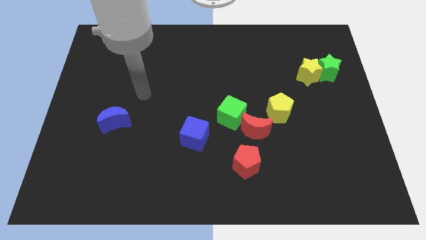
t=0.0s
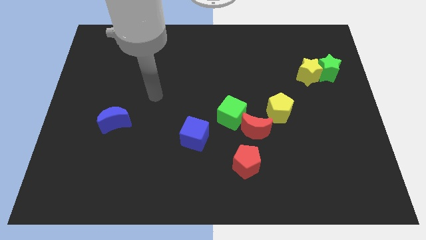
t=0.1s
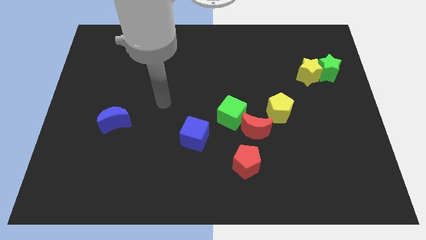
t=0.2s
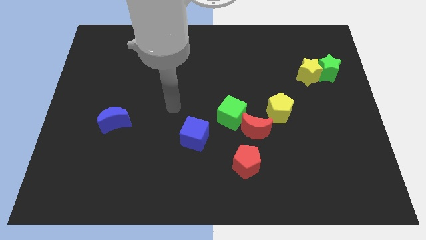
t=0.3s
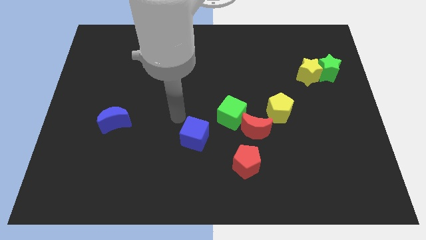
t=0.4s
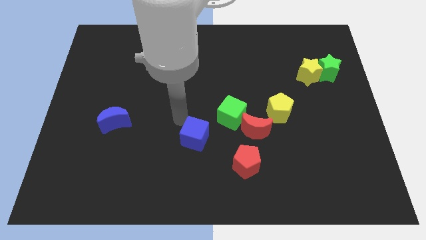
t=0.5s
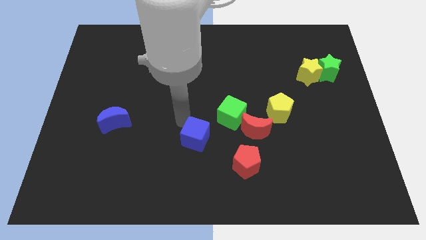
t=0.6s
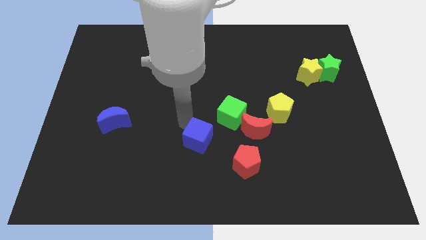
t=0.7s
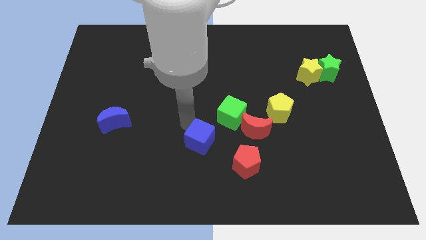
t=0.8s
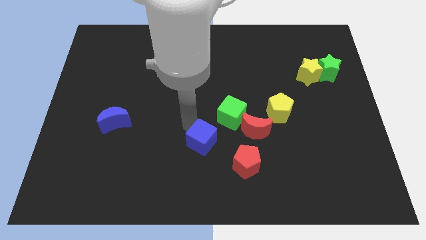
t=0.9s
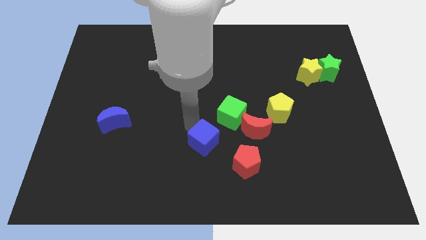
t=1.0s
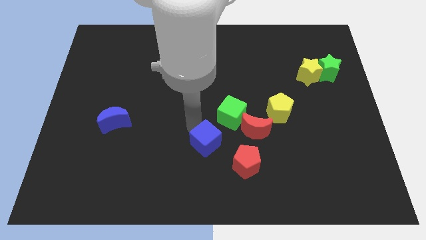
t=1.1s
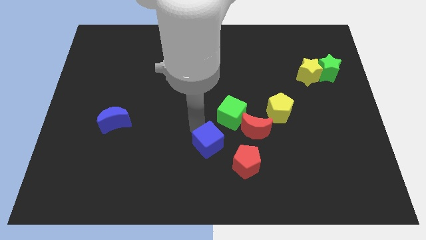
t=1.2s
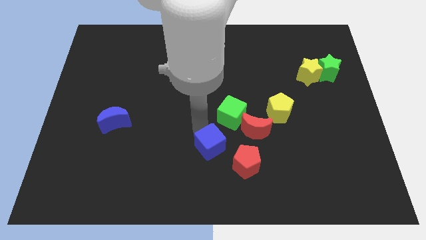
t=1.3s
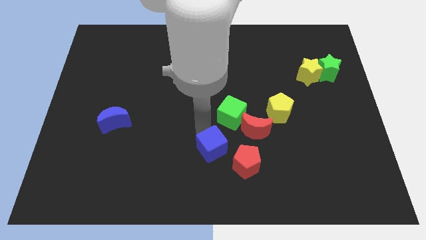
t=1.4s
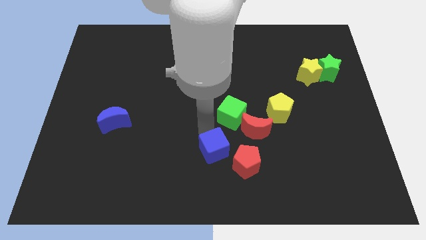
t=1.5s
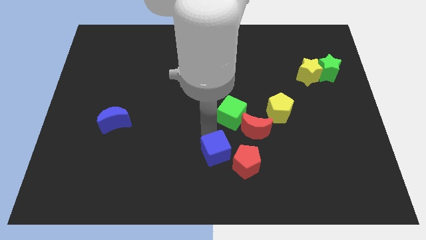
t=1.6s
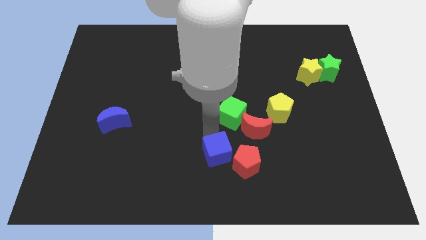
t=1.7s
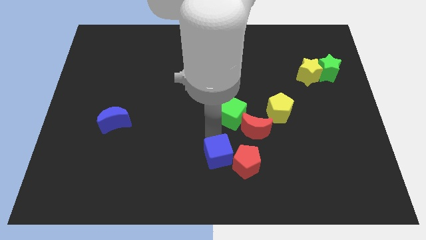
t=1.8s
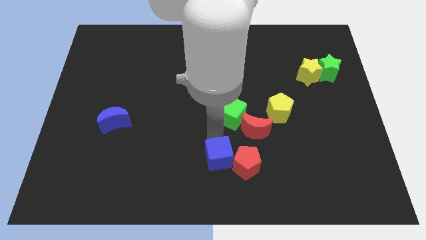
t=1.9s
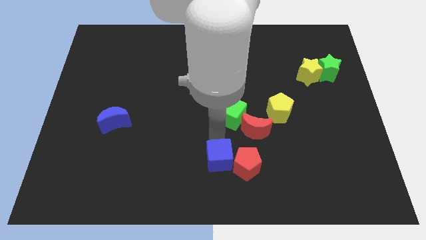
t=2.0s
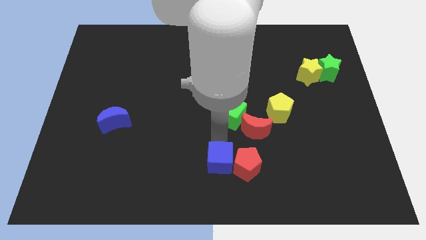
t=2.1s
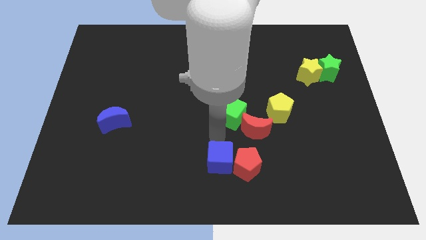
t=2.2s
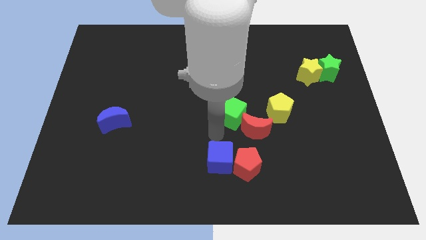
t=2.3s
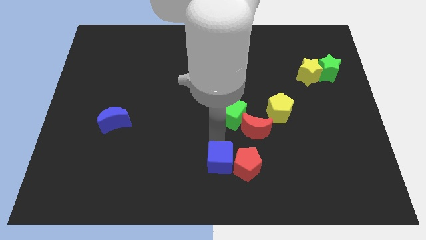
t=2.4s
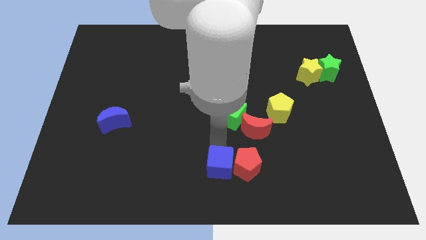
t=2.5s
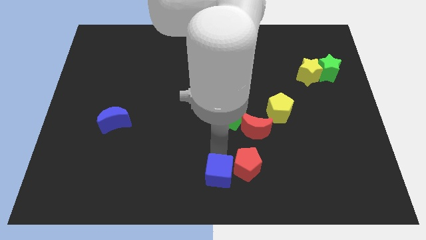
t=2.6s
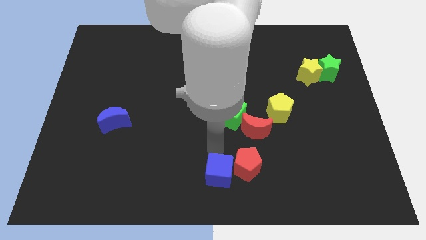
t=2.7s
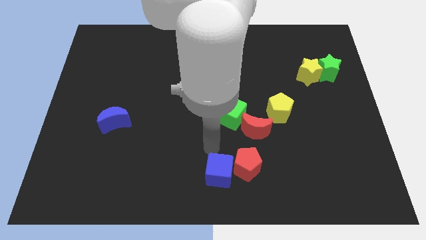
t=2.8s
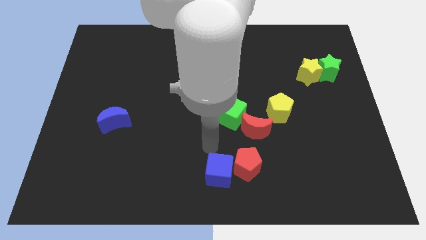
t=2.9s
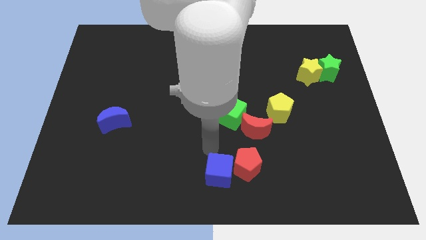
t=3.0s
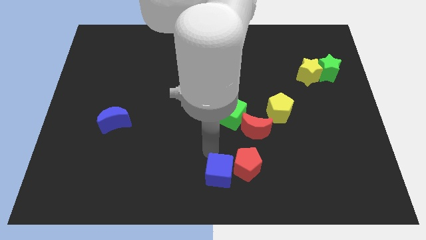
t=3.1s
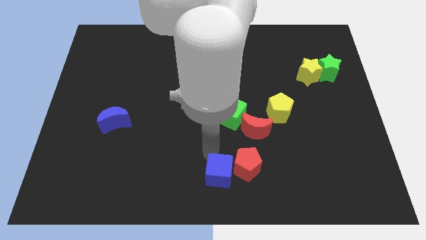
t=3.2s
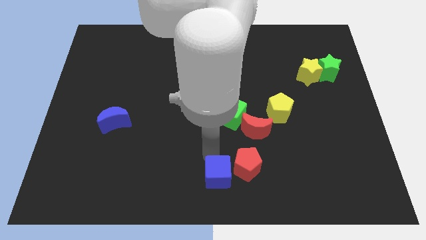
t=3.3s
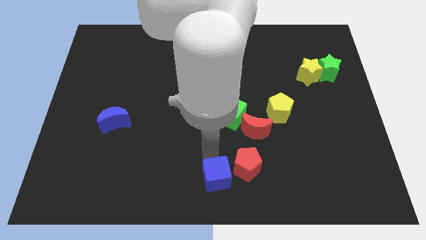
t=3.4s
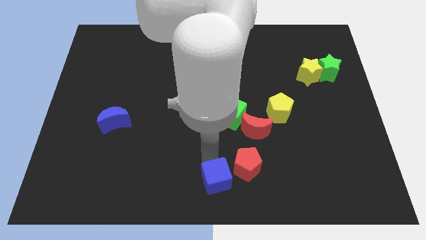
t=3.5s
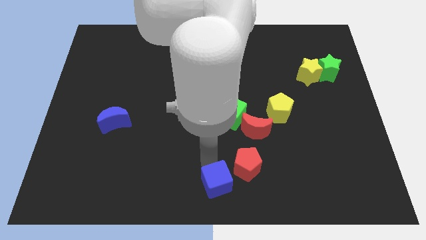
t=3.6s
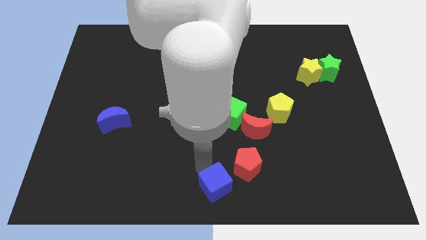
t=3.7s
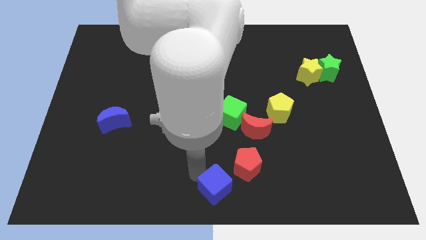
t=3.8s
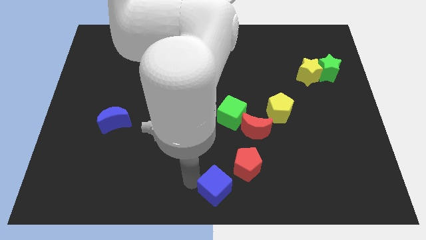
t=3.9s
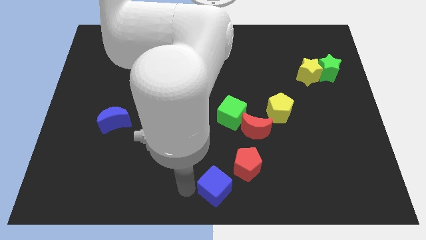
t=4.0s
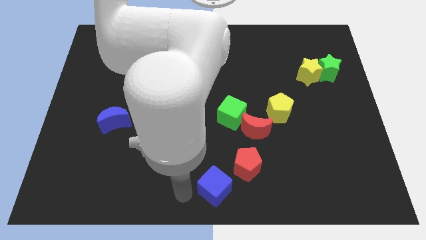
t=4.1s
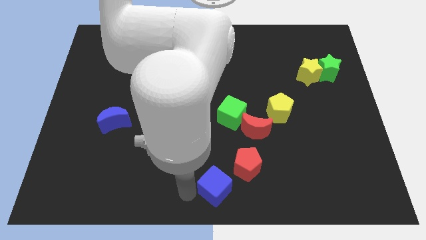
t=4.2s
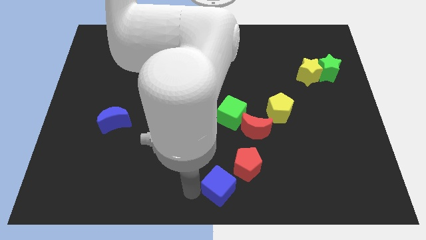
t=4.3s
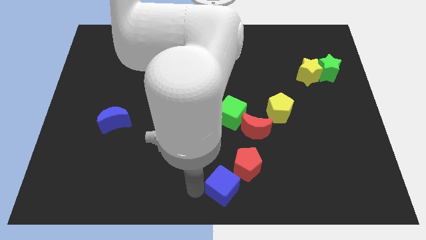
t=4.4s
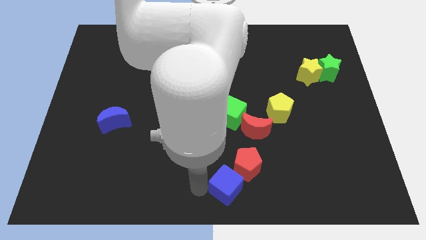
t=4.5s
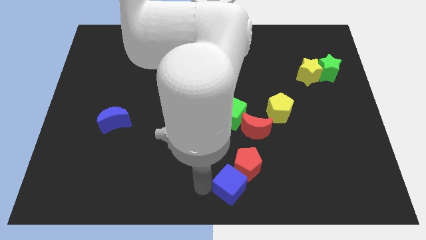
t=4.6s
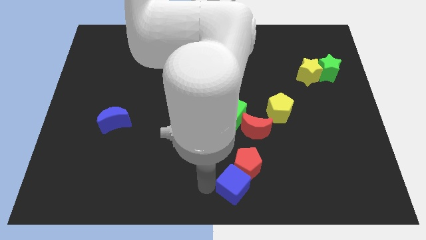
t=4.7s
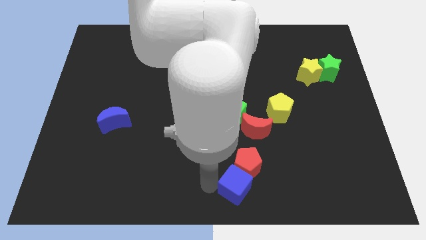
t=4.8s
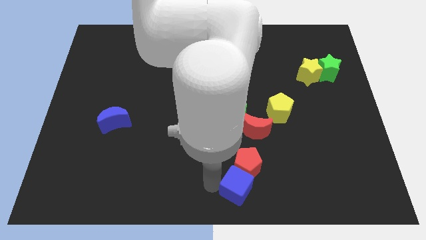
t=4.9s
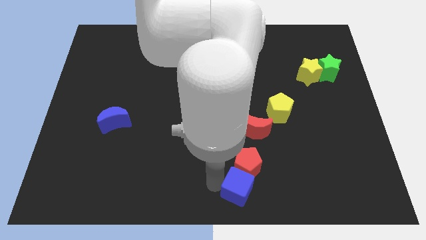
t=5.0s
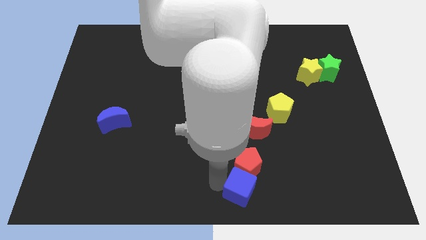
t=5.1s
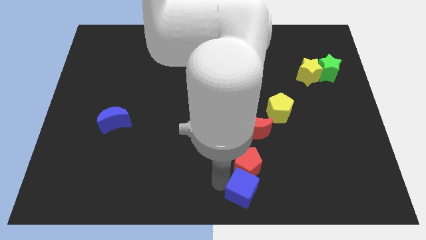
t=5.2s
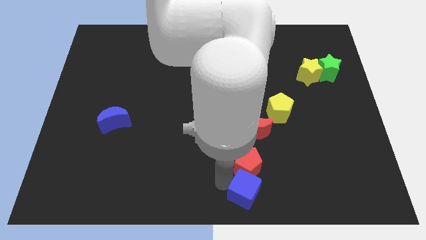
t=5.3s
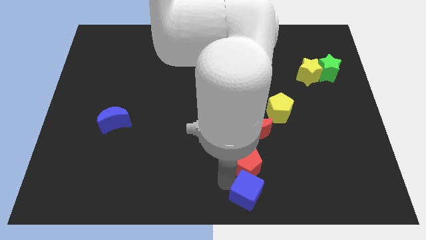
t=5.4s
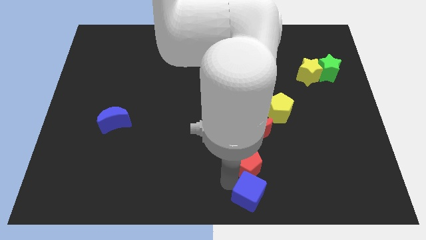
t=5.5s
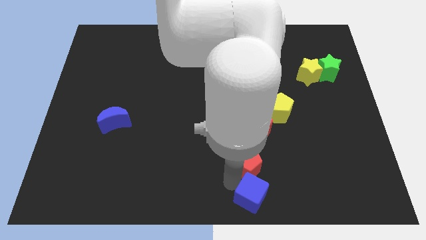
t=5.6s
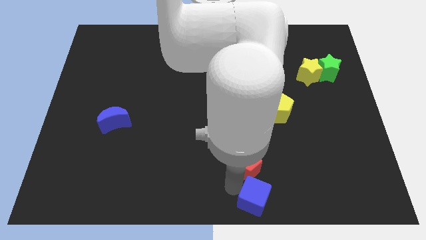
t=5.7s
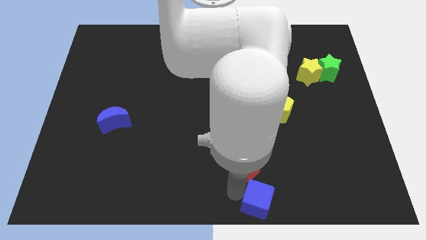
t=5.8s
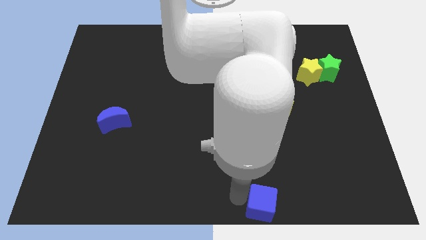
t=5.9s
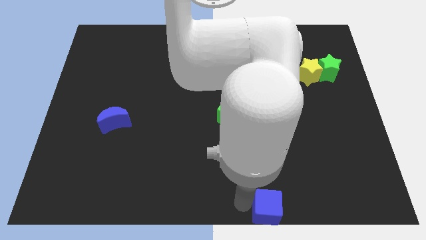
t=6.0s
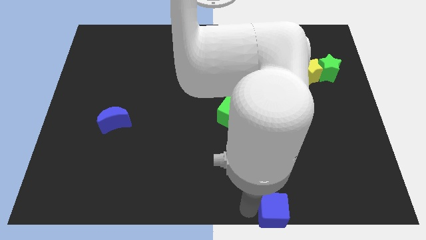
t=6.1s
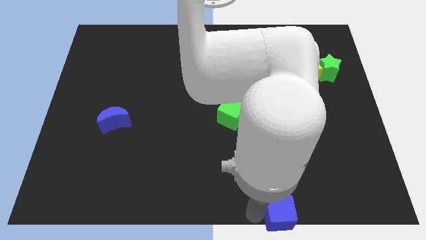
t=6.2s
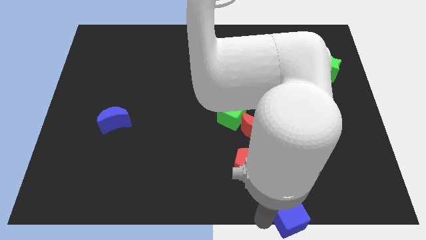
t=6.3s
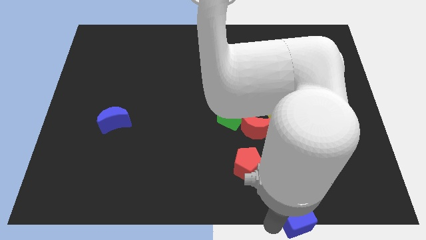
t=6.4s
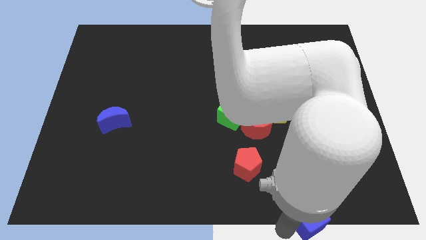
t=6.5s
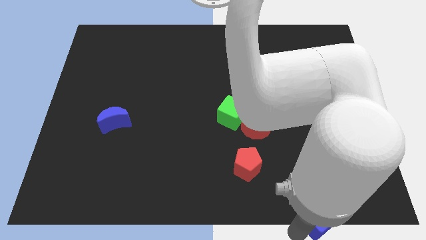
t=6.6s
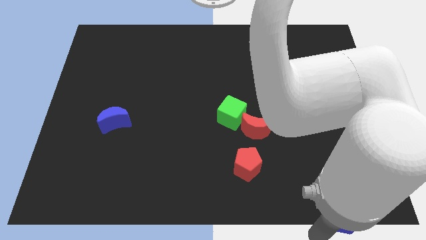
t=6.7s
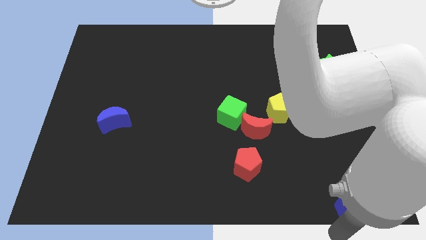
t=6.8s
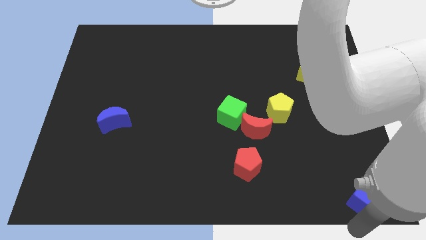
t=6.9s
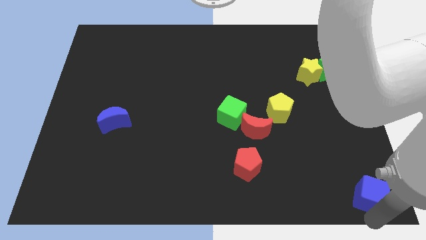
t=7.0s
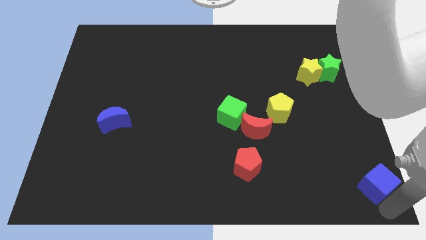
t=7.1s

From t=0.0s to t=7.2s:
slide the blue cube right

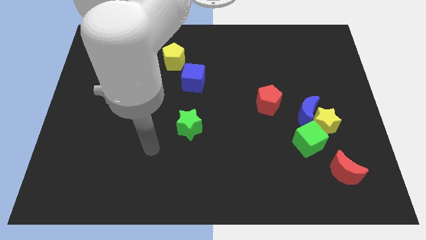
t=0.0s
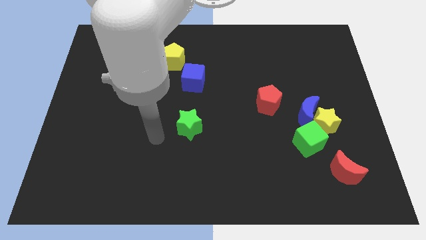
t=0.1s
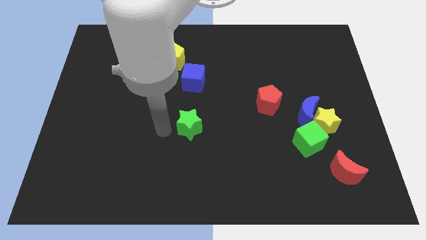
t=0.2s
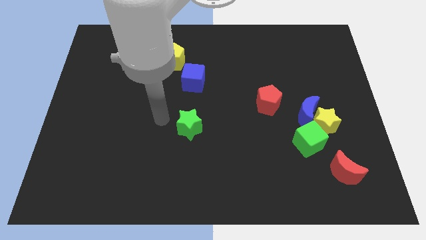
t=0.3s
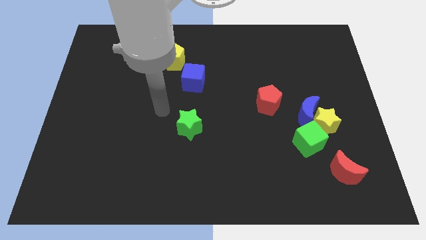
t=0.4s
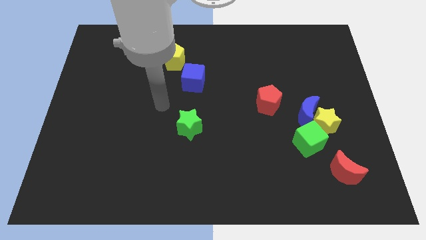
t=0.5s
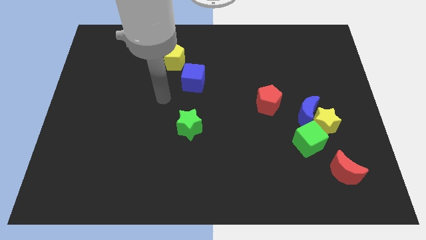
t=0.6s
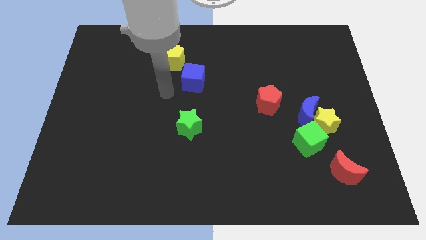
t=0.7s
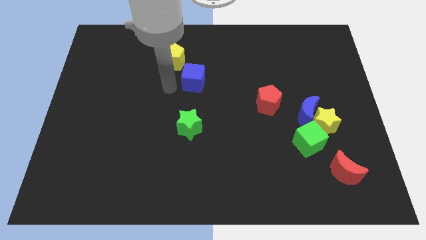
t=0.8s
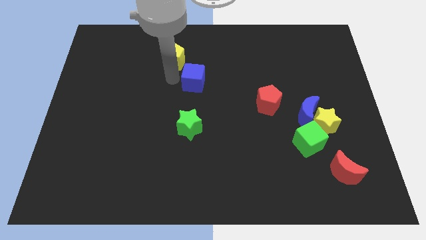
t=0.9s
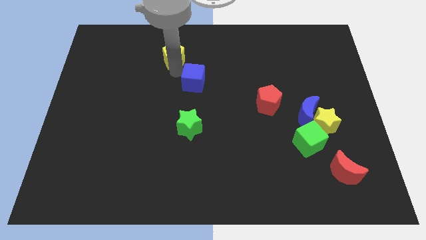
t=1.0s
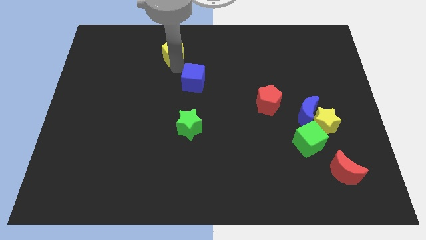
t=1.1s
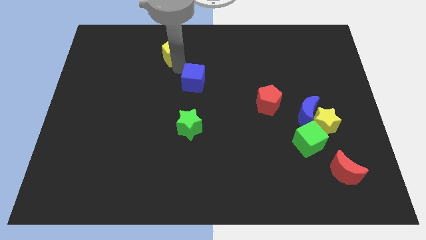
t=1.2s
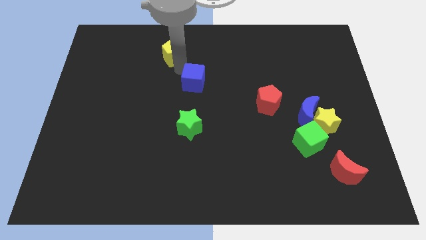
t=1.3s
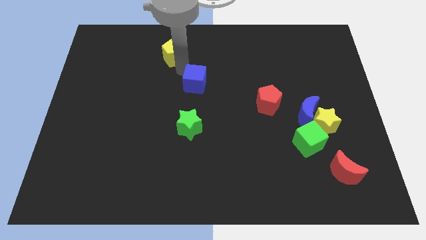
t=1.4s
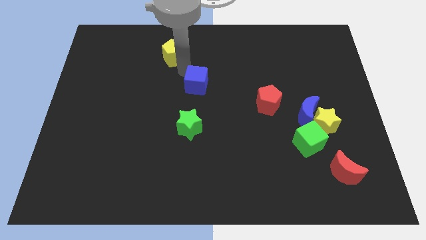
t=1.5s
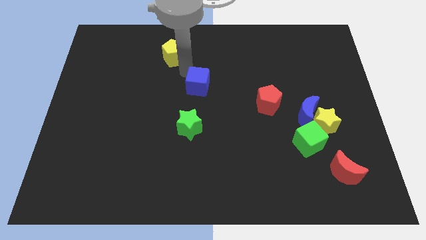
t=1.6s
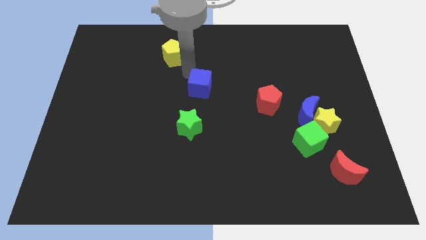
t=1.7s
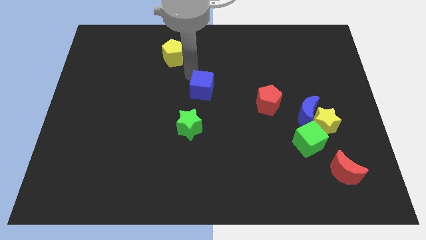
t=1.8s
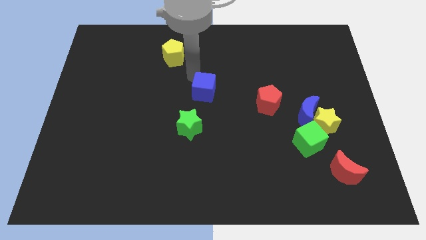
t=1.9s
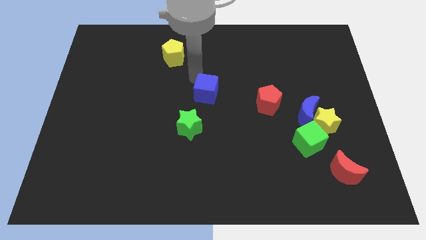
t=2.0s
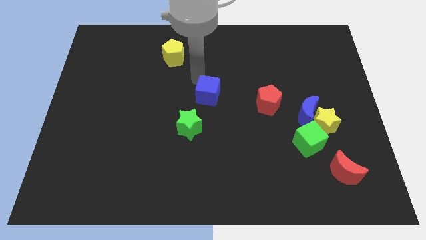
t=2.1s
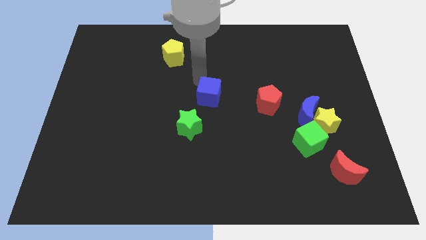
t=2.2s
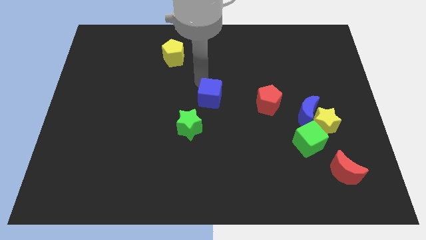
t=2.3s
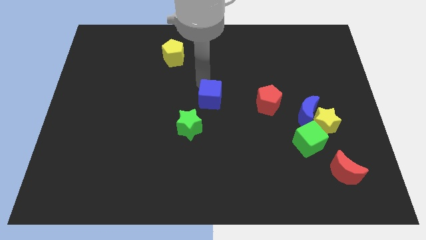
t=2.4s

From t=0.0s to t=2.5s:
push the blue cube a bit down and to the right
